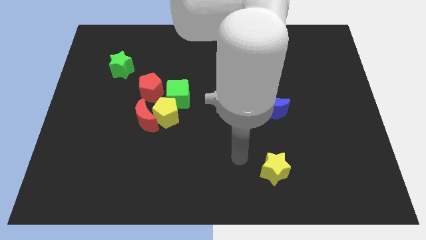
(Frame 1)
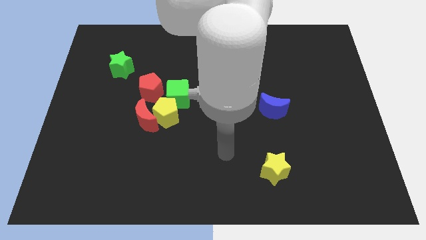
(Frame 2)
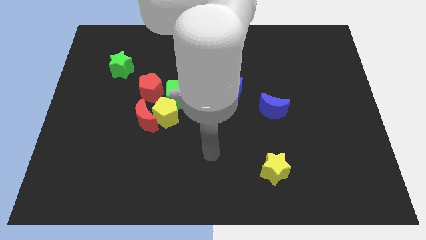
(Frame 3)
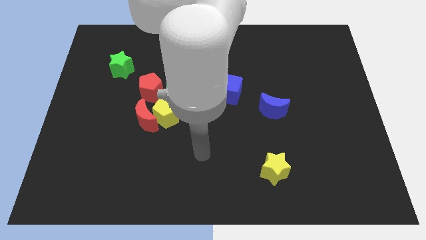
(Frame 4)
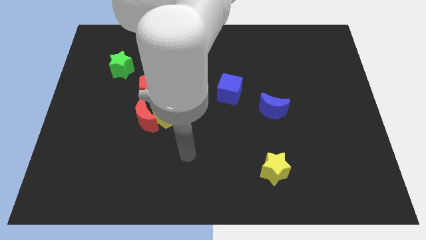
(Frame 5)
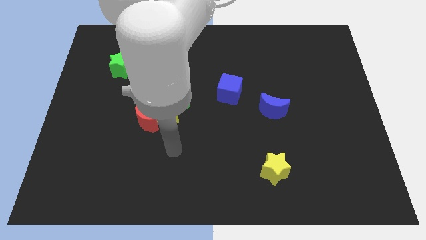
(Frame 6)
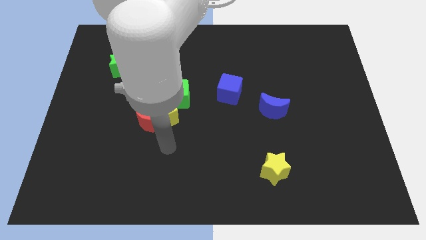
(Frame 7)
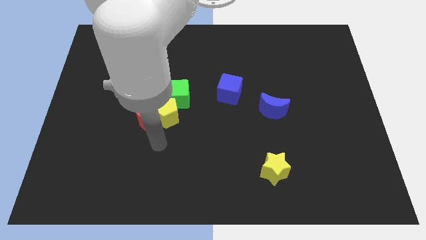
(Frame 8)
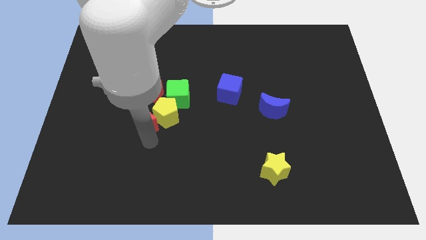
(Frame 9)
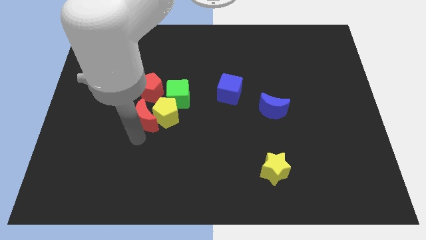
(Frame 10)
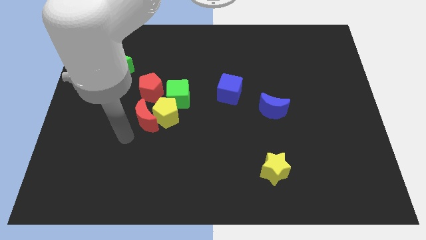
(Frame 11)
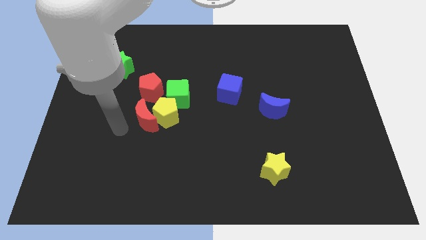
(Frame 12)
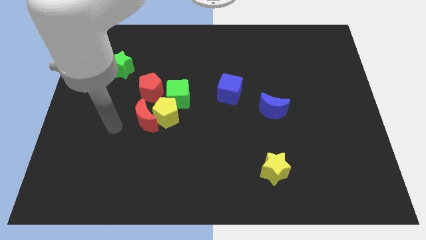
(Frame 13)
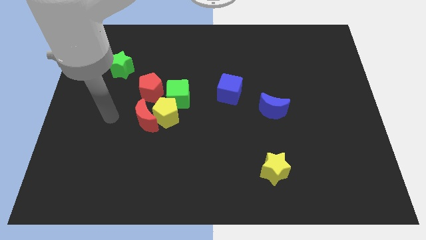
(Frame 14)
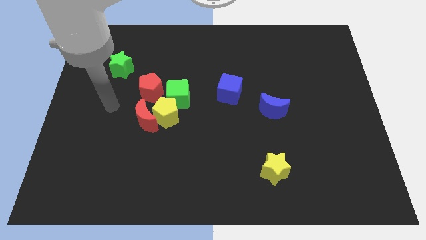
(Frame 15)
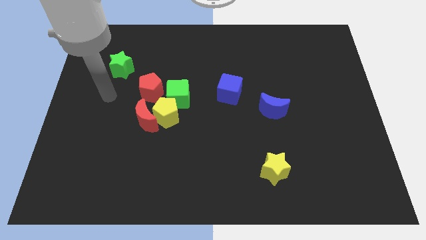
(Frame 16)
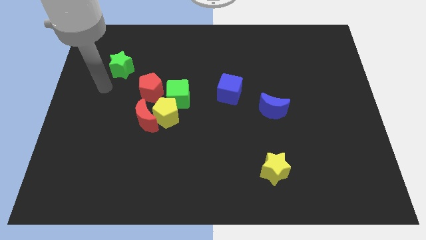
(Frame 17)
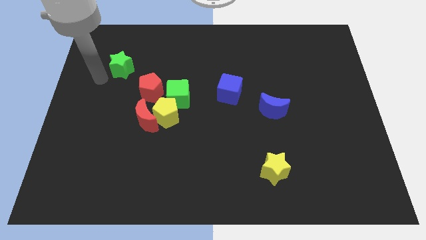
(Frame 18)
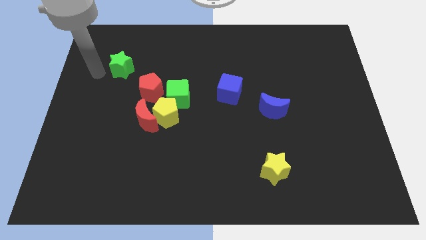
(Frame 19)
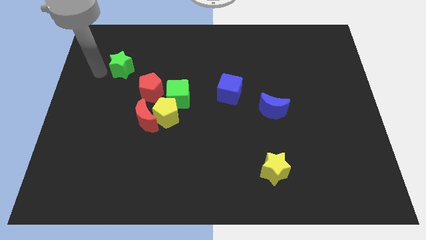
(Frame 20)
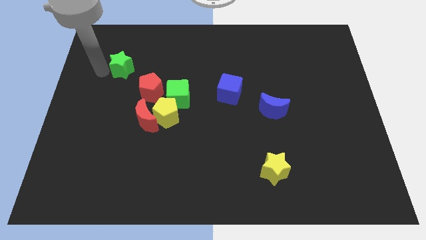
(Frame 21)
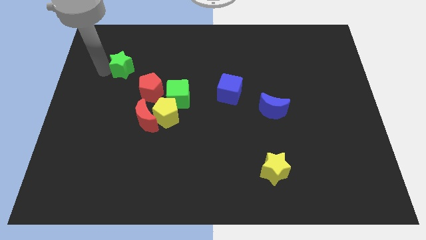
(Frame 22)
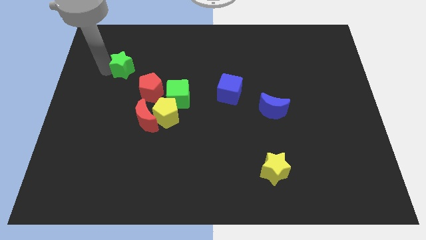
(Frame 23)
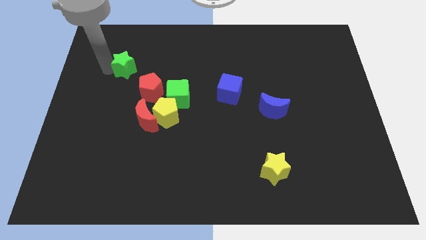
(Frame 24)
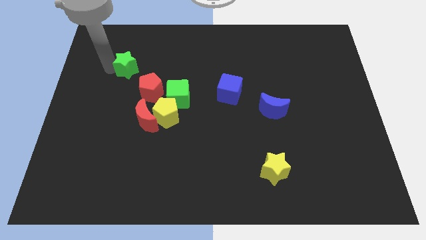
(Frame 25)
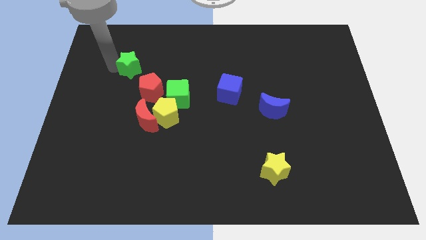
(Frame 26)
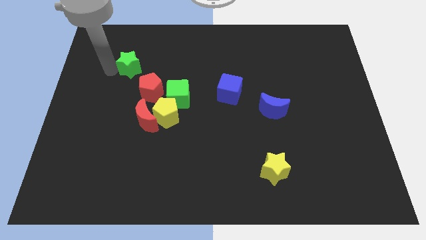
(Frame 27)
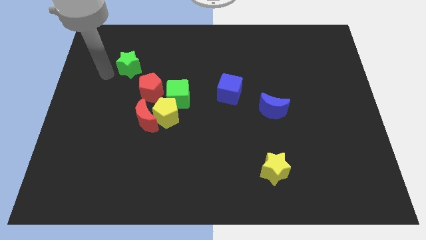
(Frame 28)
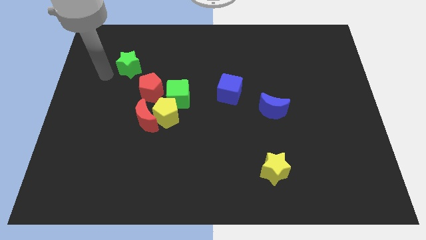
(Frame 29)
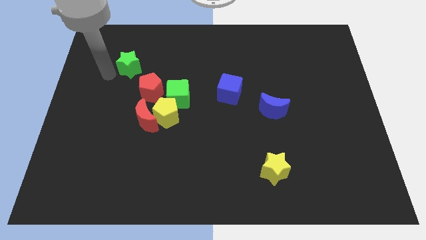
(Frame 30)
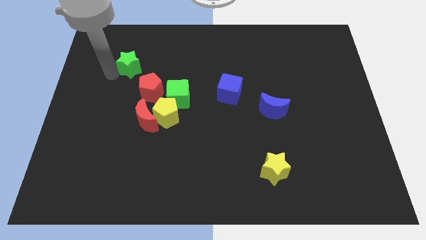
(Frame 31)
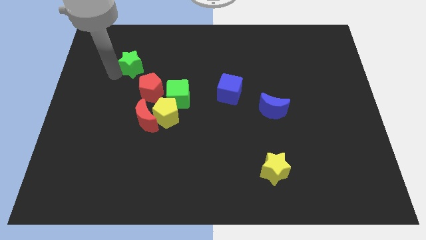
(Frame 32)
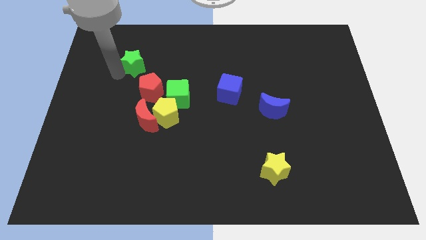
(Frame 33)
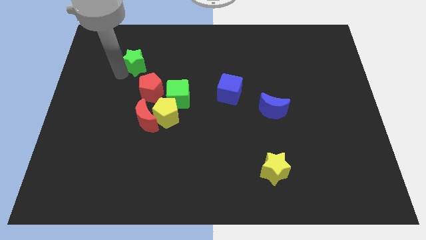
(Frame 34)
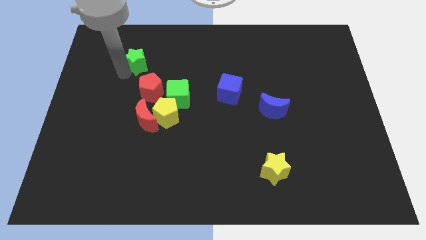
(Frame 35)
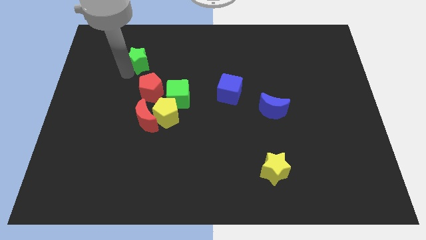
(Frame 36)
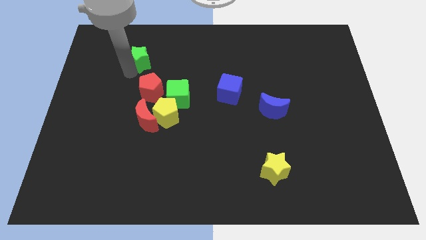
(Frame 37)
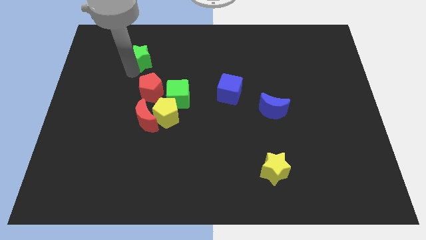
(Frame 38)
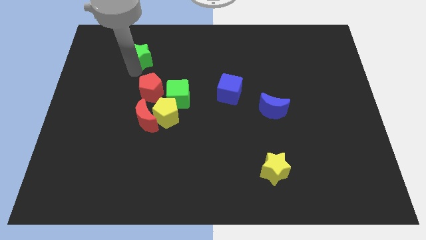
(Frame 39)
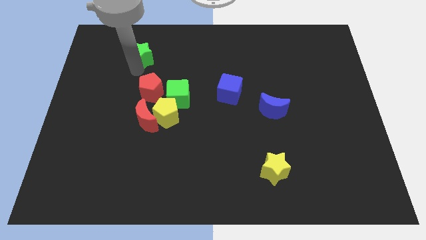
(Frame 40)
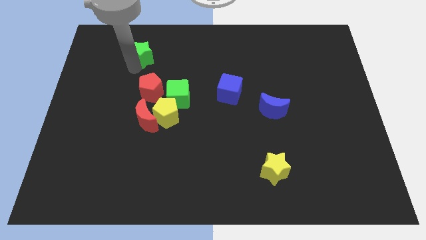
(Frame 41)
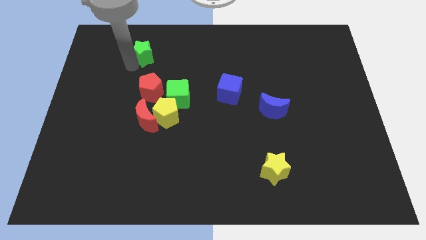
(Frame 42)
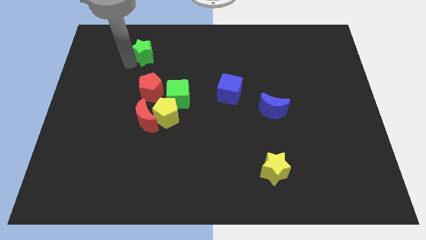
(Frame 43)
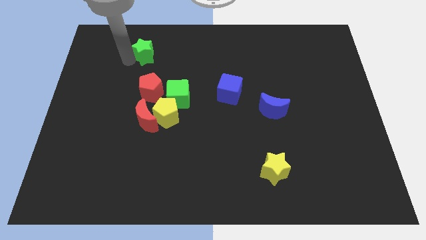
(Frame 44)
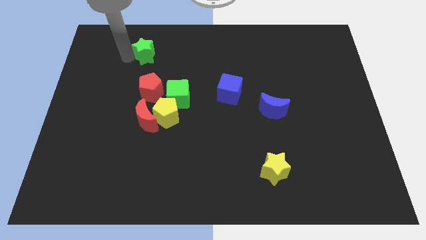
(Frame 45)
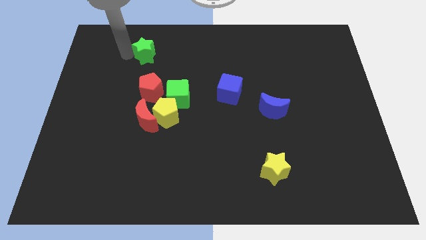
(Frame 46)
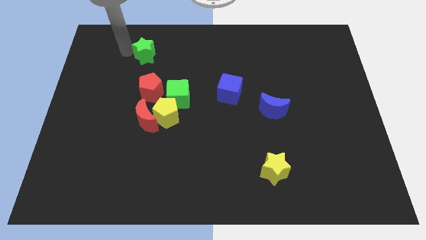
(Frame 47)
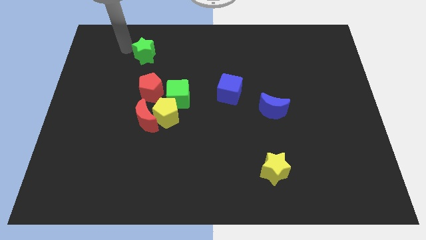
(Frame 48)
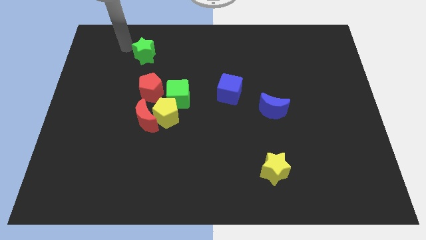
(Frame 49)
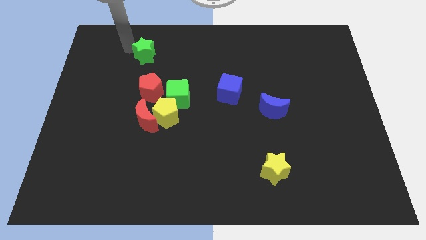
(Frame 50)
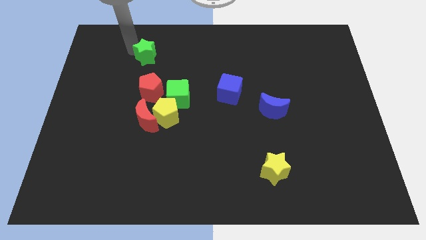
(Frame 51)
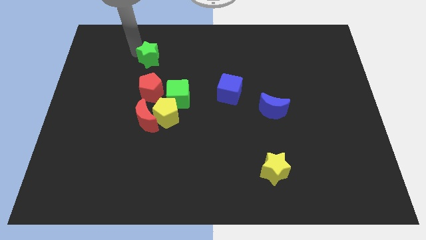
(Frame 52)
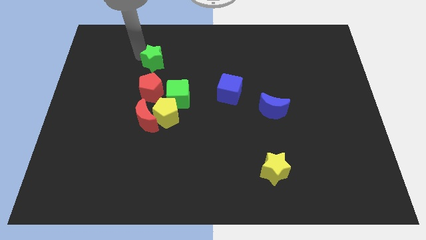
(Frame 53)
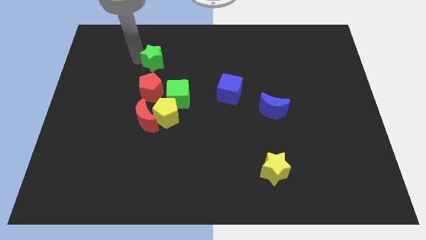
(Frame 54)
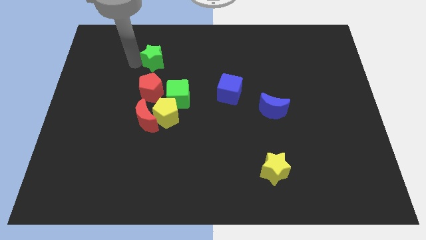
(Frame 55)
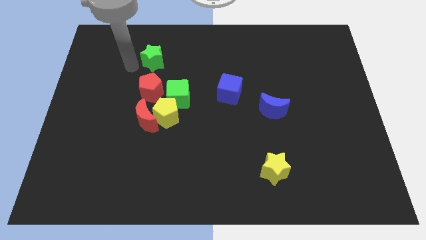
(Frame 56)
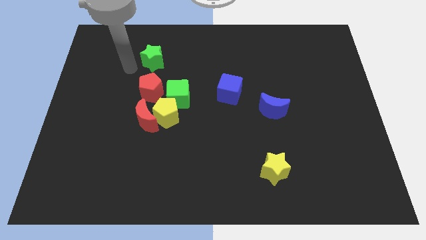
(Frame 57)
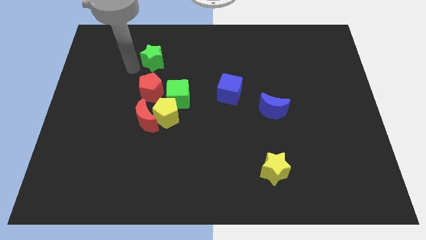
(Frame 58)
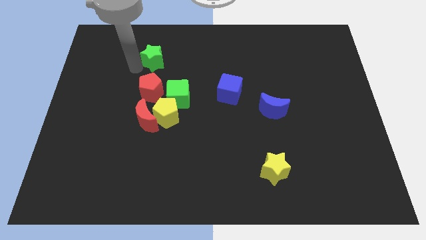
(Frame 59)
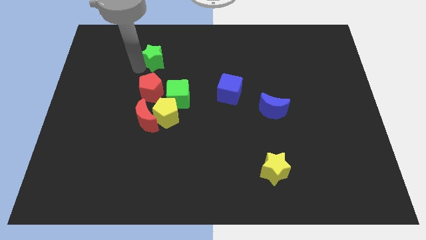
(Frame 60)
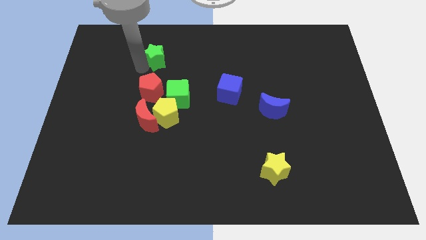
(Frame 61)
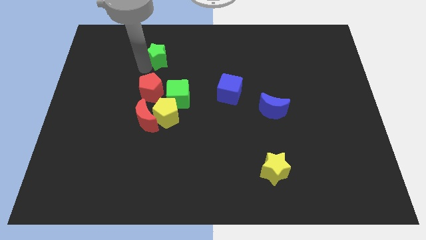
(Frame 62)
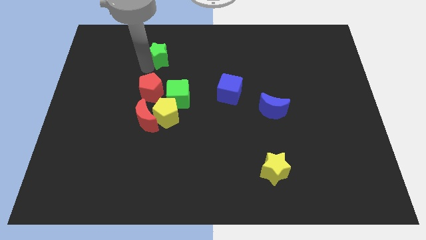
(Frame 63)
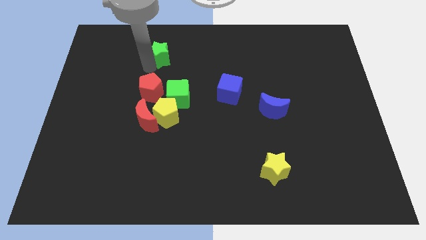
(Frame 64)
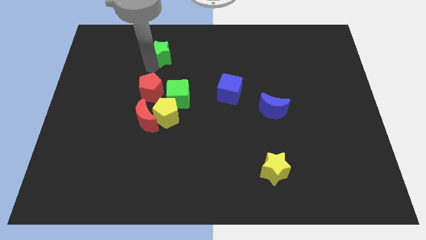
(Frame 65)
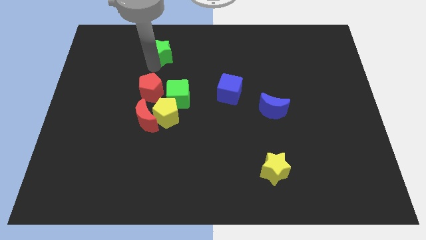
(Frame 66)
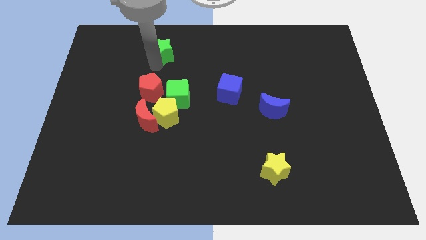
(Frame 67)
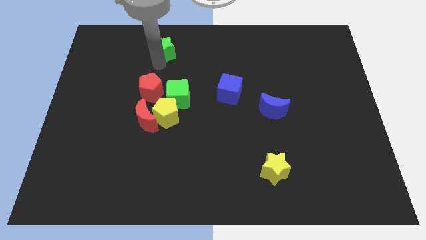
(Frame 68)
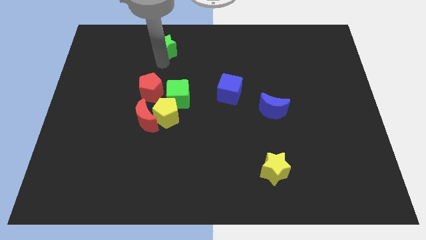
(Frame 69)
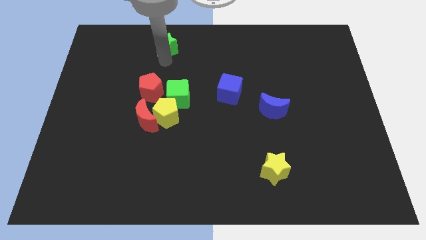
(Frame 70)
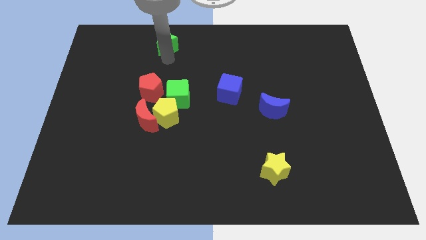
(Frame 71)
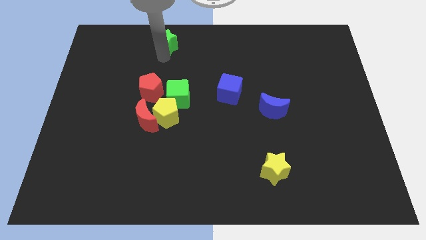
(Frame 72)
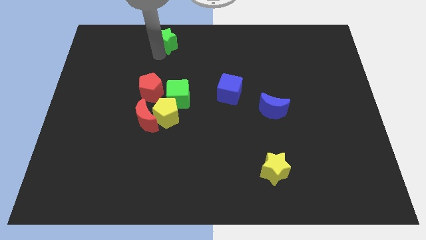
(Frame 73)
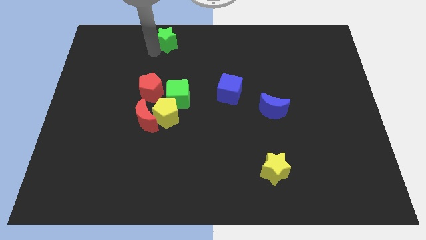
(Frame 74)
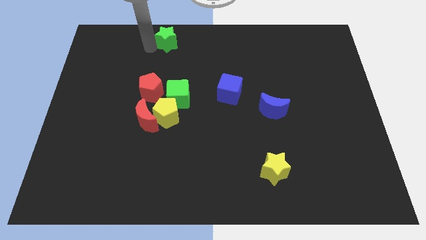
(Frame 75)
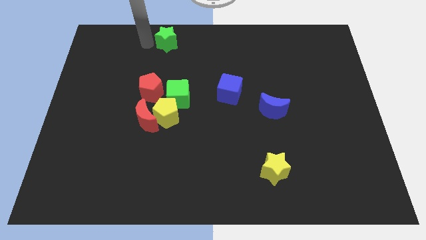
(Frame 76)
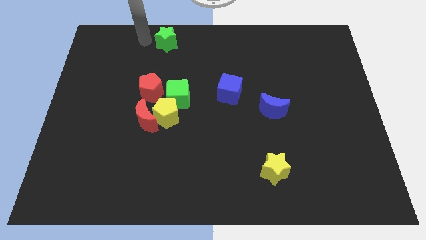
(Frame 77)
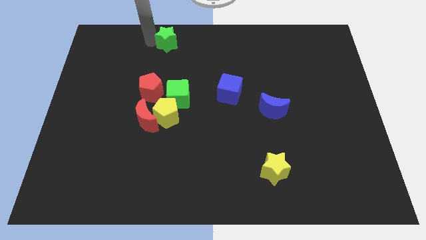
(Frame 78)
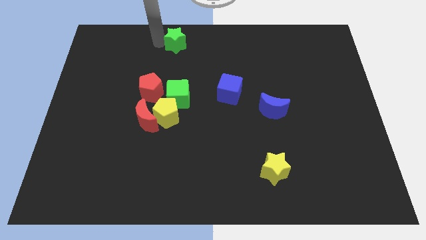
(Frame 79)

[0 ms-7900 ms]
put the green star to the top
